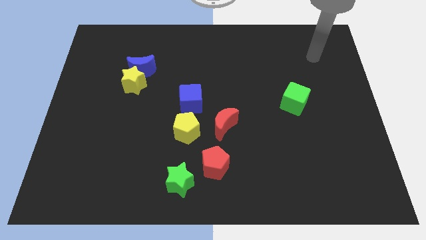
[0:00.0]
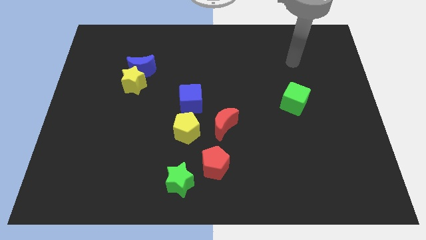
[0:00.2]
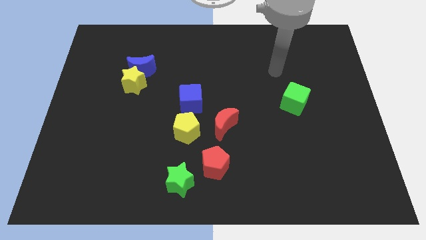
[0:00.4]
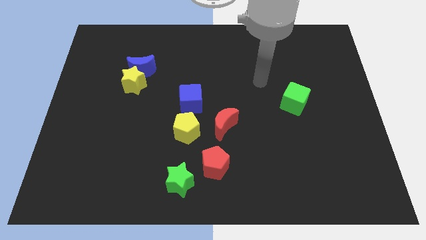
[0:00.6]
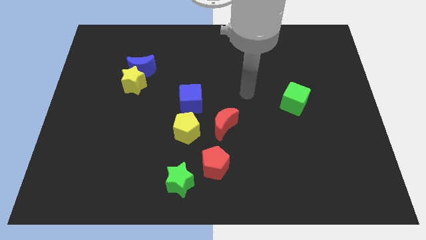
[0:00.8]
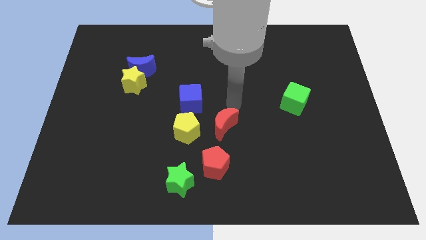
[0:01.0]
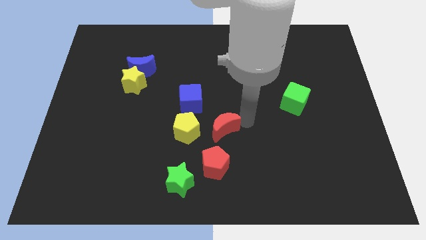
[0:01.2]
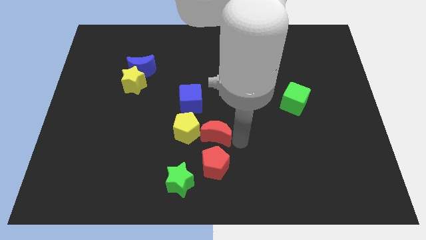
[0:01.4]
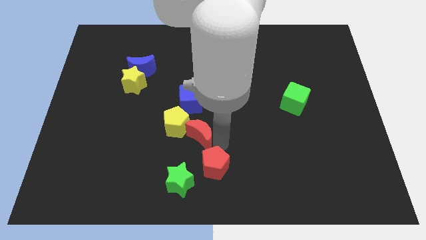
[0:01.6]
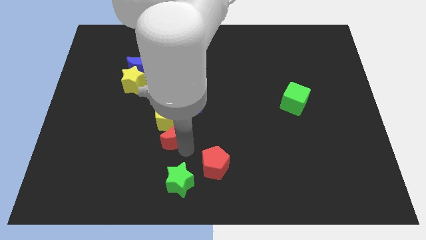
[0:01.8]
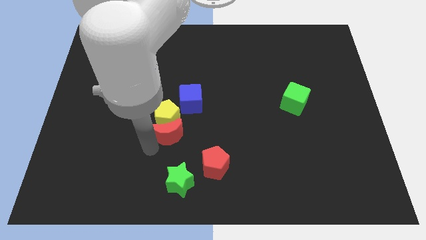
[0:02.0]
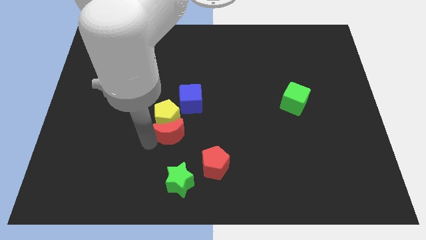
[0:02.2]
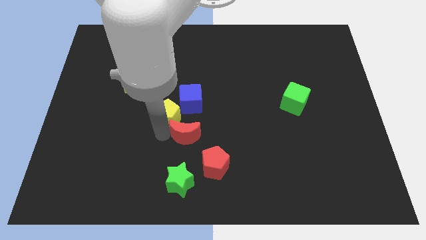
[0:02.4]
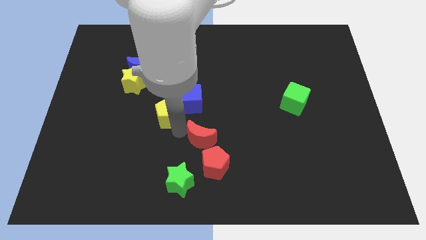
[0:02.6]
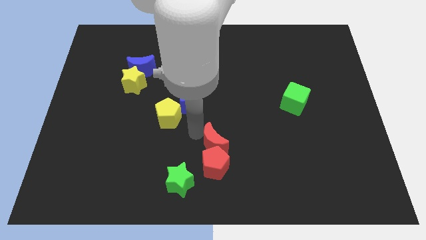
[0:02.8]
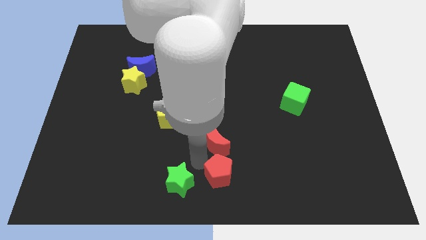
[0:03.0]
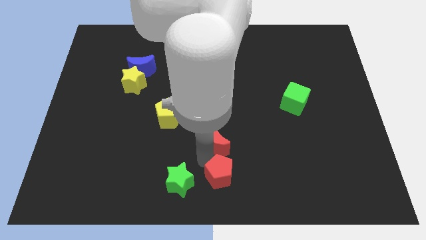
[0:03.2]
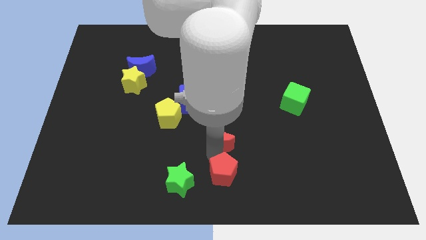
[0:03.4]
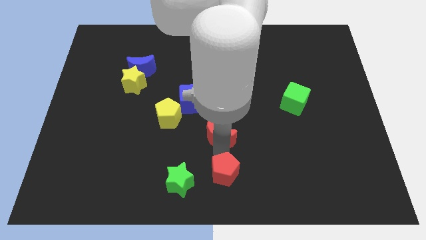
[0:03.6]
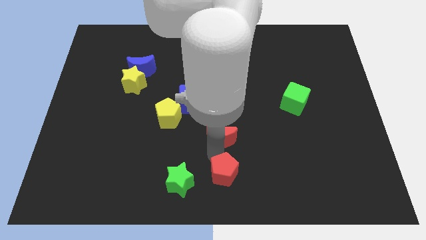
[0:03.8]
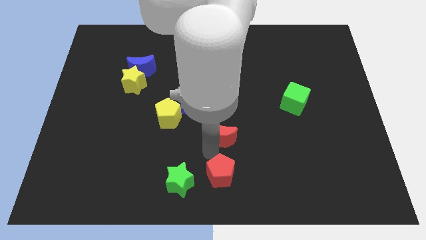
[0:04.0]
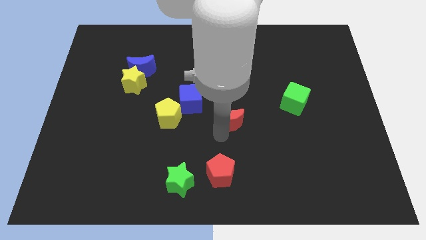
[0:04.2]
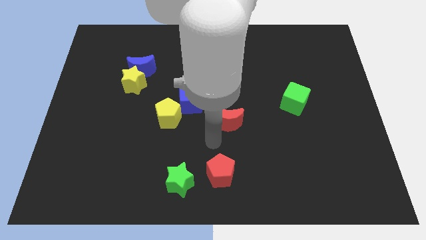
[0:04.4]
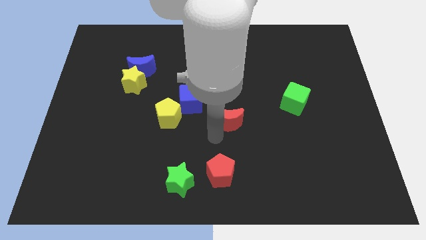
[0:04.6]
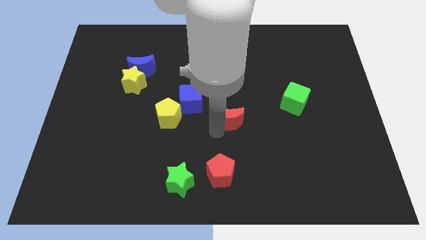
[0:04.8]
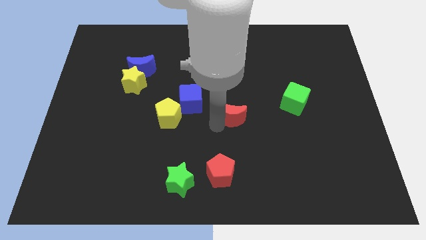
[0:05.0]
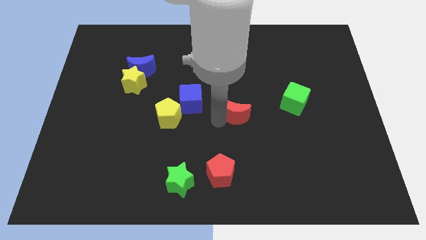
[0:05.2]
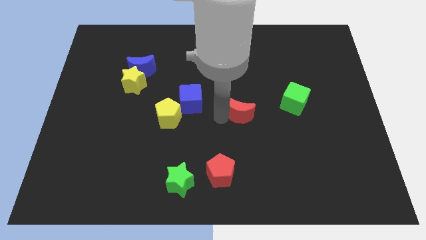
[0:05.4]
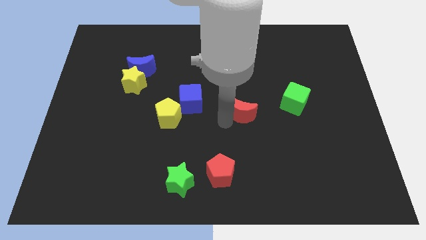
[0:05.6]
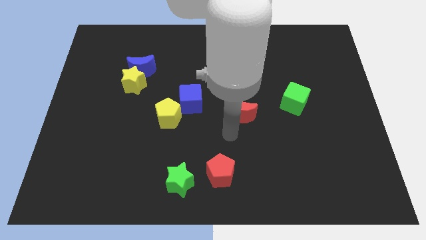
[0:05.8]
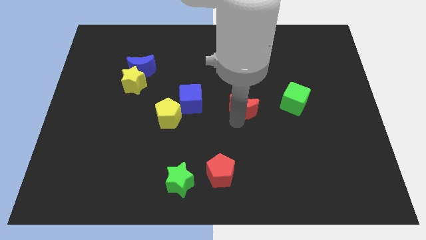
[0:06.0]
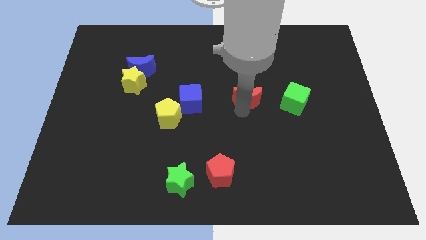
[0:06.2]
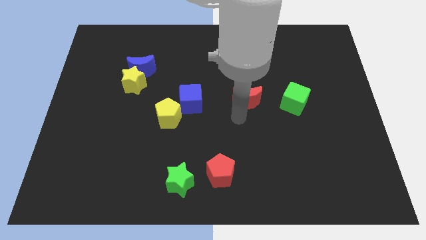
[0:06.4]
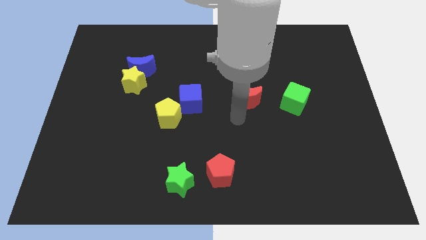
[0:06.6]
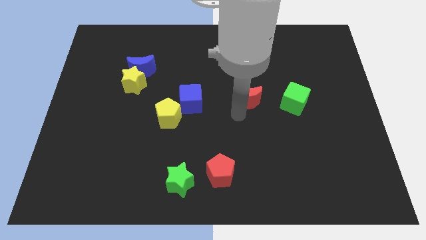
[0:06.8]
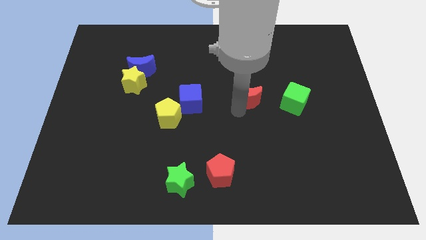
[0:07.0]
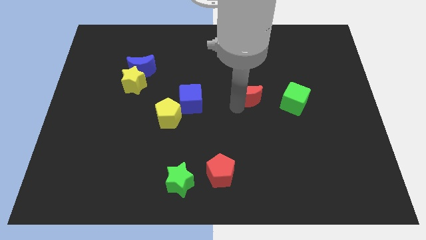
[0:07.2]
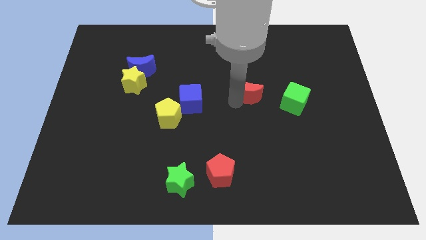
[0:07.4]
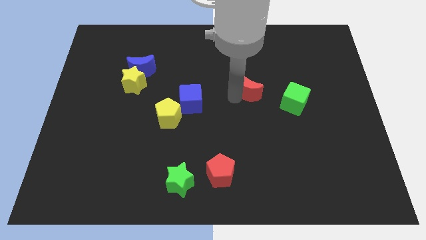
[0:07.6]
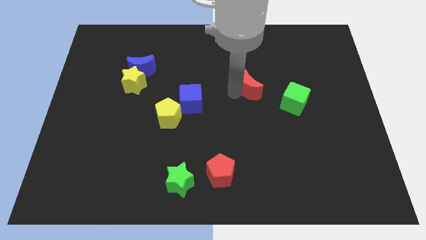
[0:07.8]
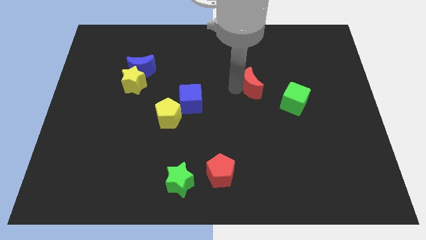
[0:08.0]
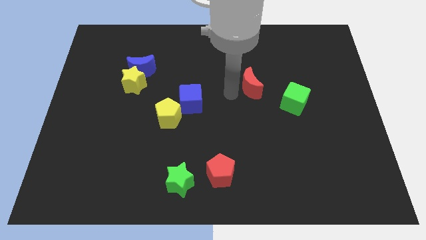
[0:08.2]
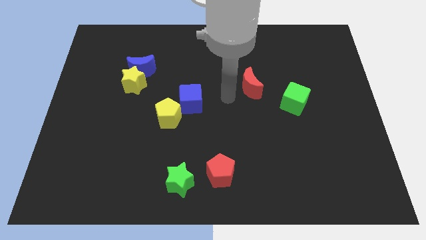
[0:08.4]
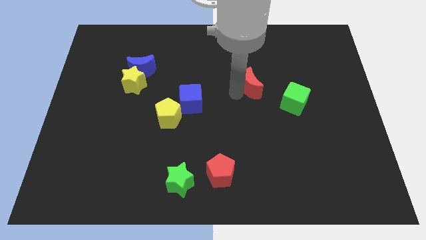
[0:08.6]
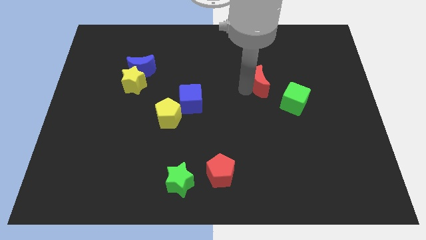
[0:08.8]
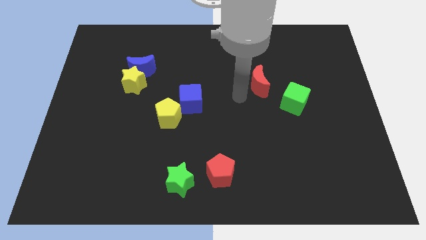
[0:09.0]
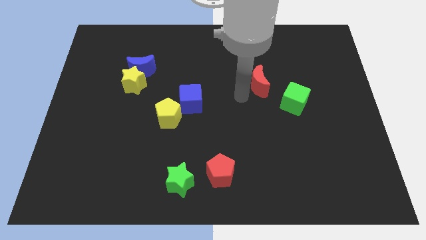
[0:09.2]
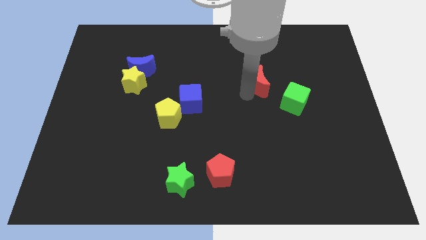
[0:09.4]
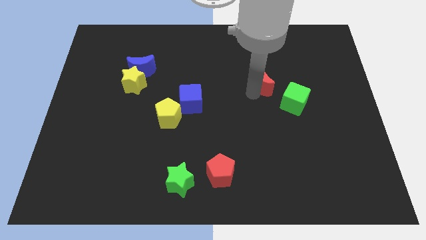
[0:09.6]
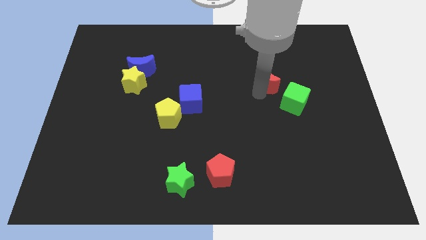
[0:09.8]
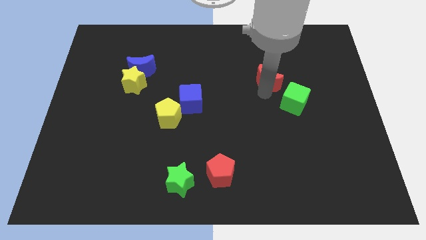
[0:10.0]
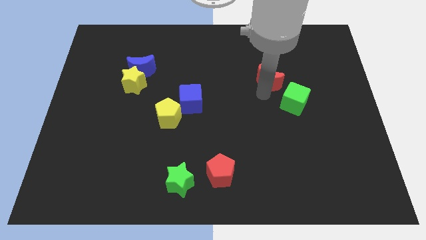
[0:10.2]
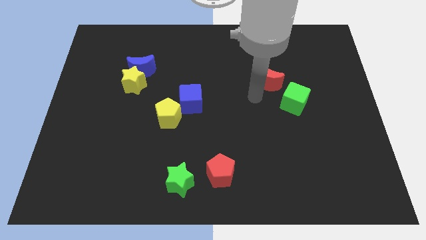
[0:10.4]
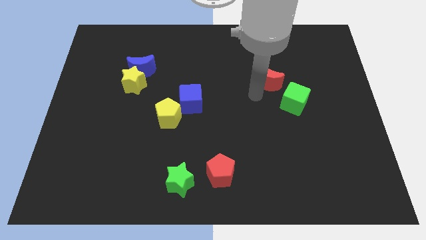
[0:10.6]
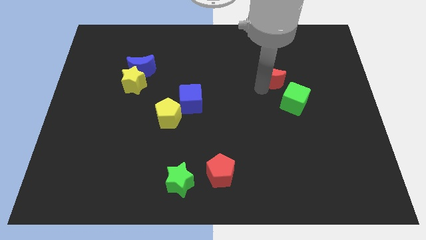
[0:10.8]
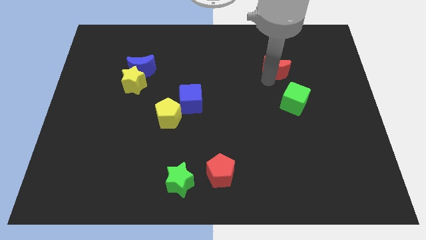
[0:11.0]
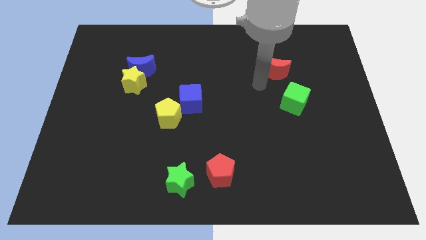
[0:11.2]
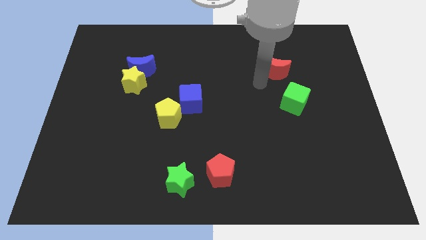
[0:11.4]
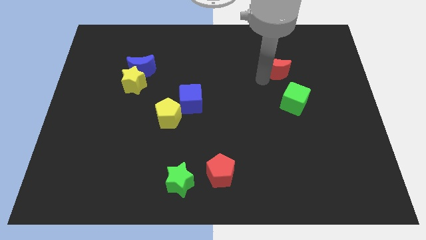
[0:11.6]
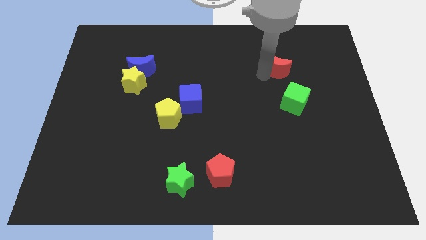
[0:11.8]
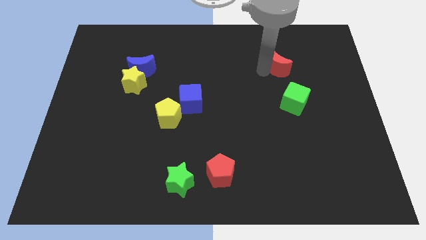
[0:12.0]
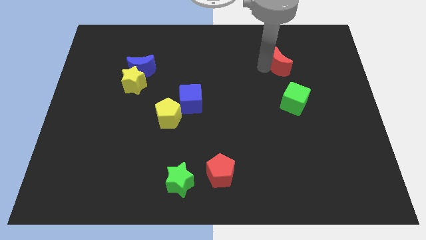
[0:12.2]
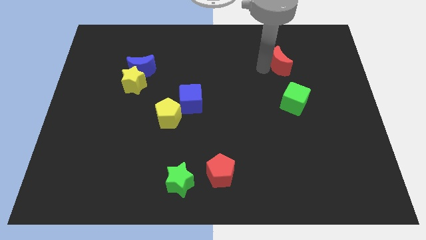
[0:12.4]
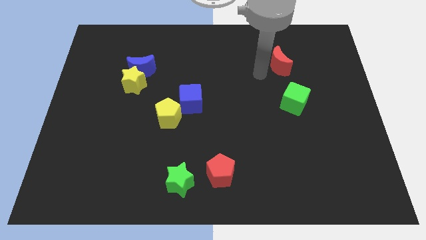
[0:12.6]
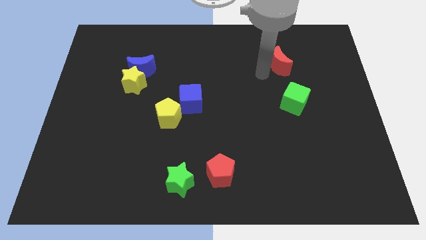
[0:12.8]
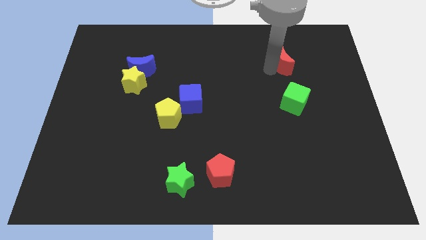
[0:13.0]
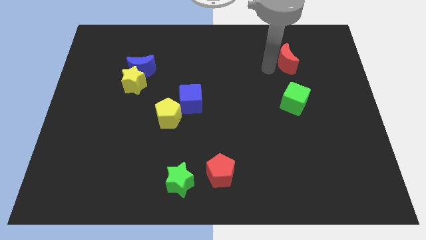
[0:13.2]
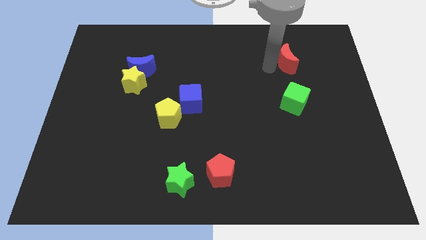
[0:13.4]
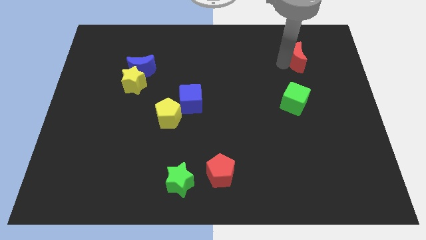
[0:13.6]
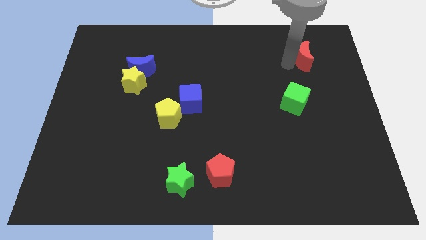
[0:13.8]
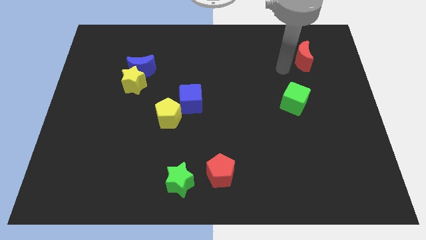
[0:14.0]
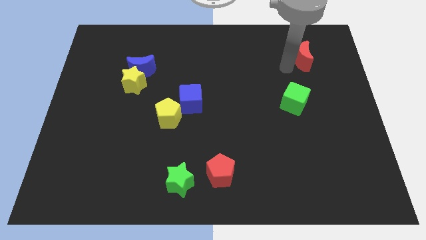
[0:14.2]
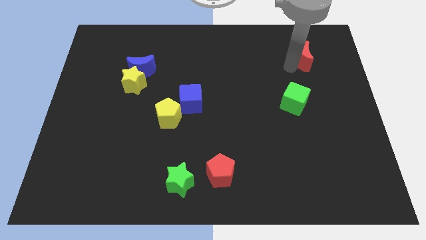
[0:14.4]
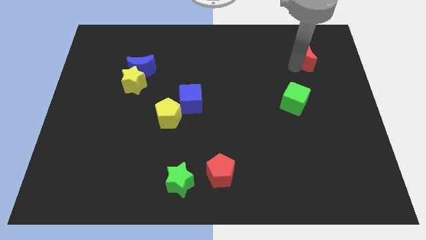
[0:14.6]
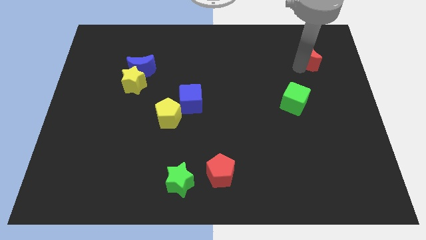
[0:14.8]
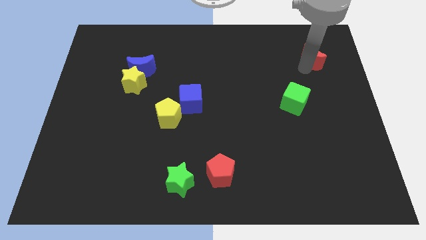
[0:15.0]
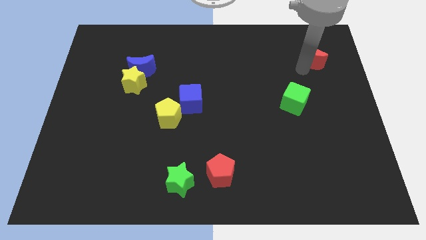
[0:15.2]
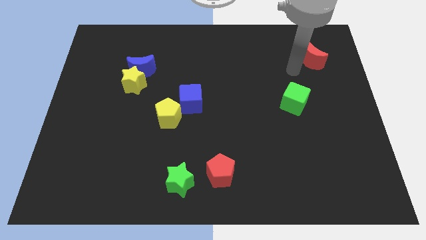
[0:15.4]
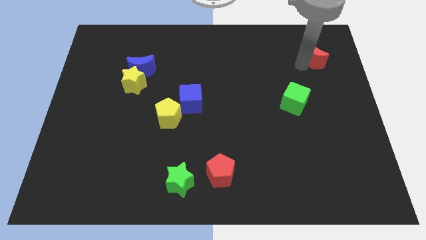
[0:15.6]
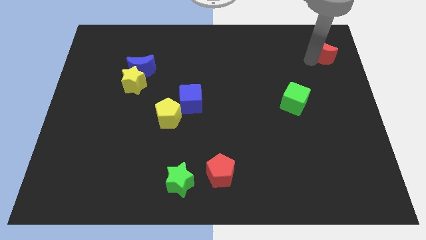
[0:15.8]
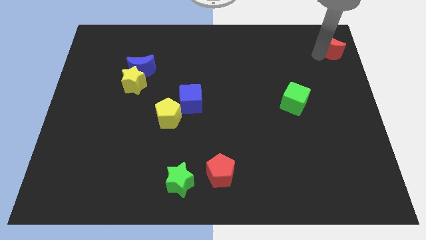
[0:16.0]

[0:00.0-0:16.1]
put the red moon to the top right
